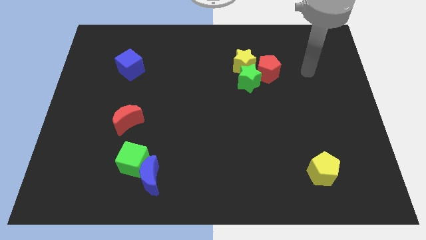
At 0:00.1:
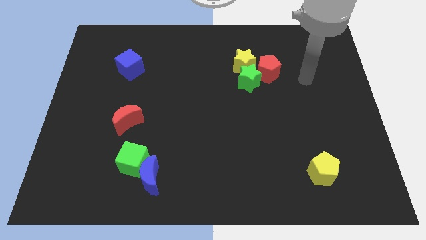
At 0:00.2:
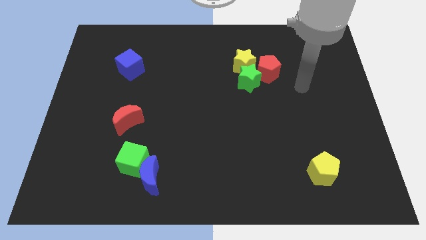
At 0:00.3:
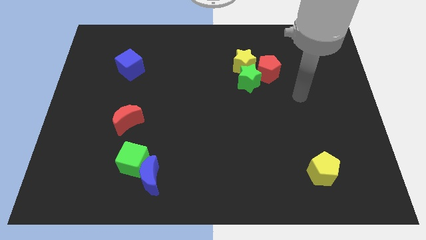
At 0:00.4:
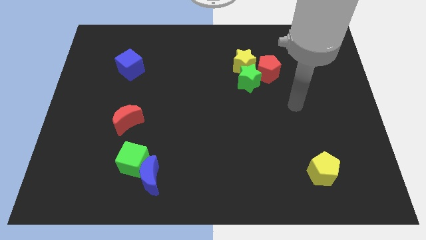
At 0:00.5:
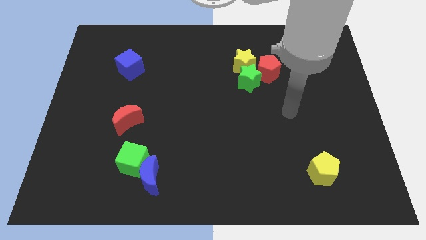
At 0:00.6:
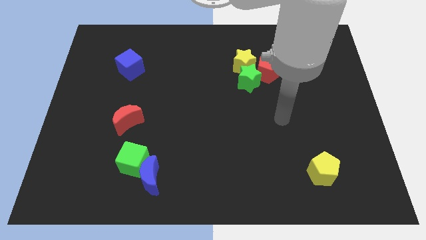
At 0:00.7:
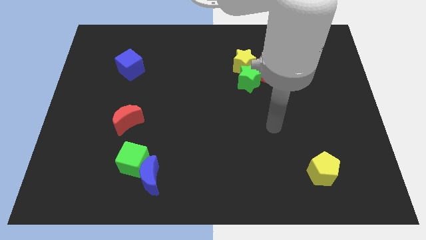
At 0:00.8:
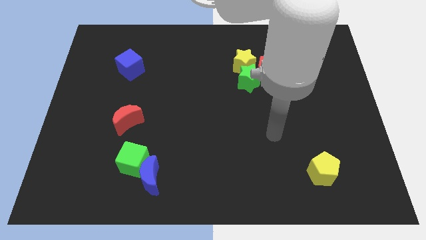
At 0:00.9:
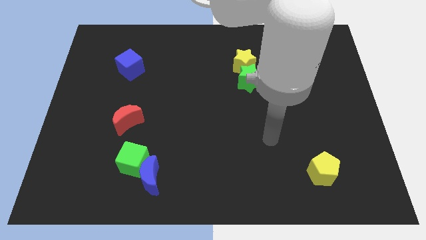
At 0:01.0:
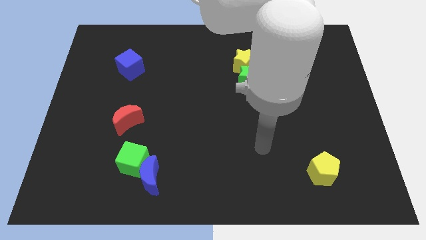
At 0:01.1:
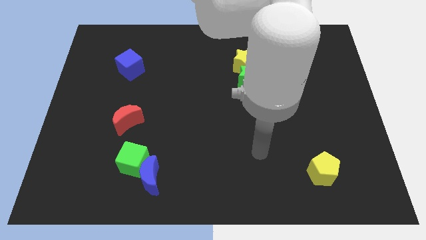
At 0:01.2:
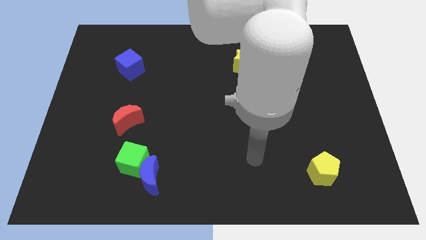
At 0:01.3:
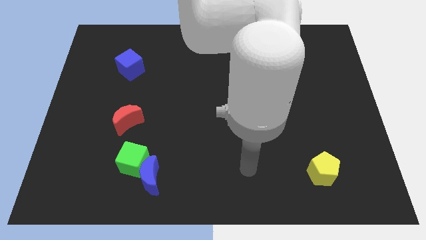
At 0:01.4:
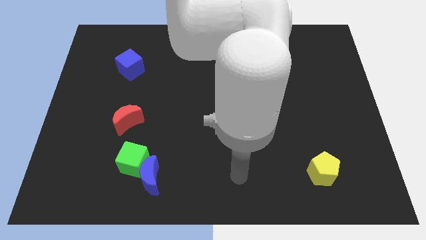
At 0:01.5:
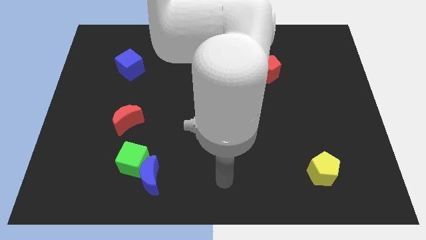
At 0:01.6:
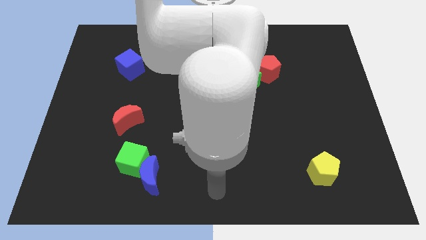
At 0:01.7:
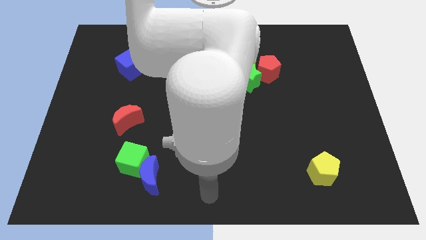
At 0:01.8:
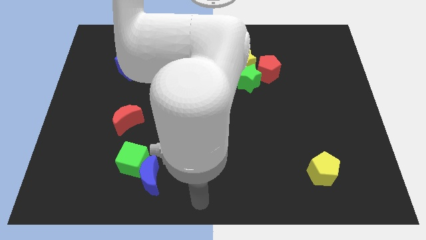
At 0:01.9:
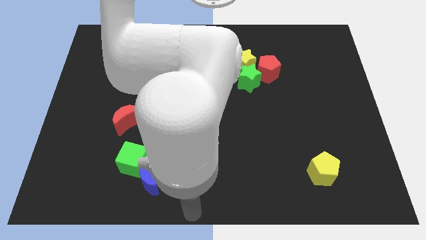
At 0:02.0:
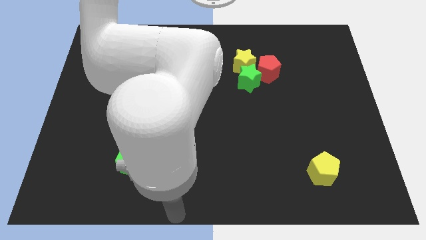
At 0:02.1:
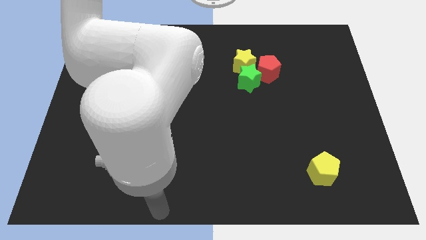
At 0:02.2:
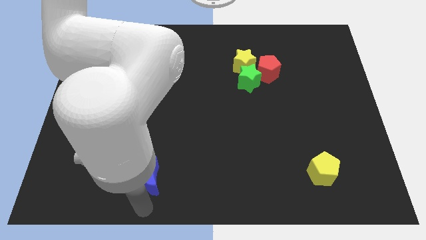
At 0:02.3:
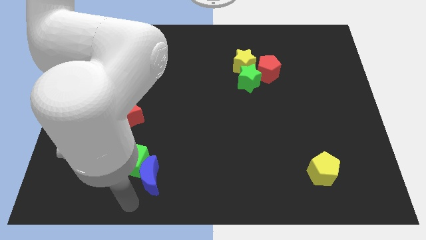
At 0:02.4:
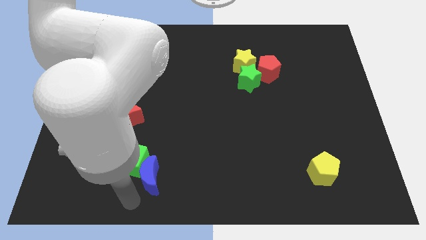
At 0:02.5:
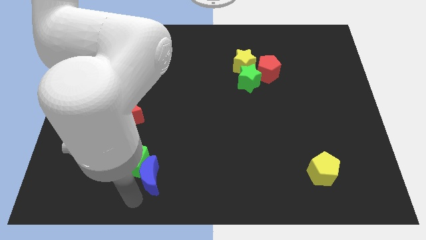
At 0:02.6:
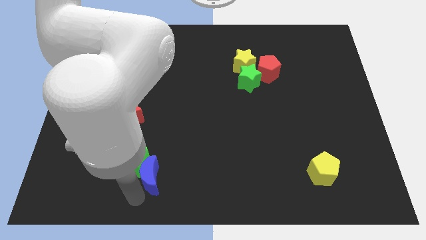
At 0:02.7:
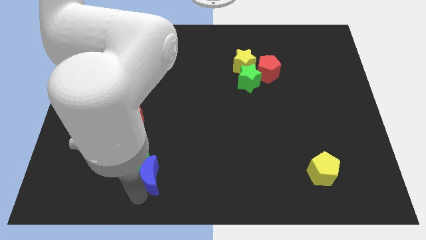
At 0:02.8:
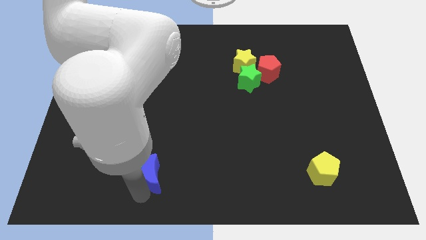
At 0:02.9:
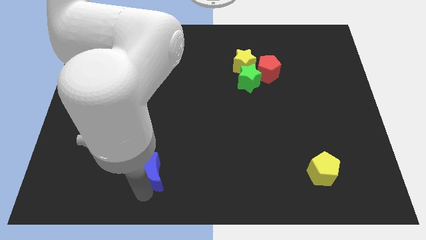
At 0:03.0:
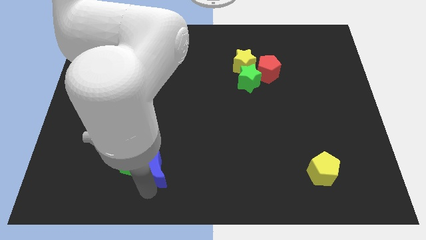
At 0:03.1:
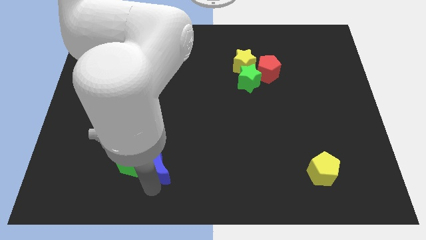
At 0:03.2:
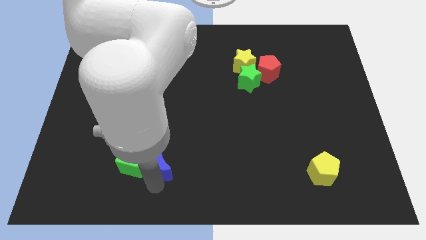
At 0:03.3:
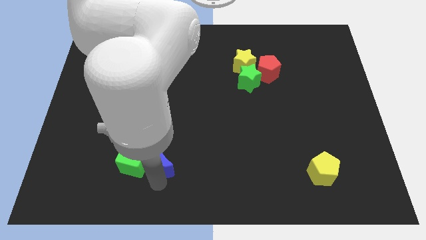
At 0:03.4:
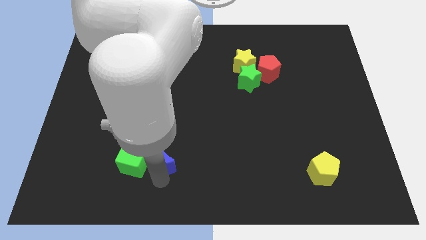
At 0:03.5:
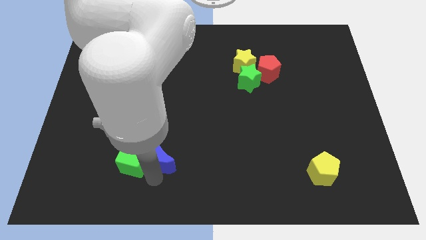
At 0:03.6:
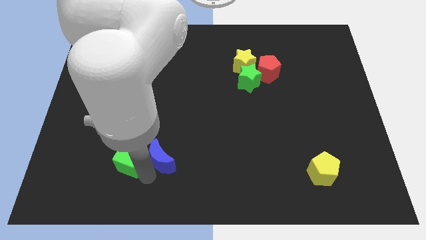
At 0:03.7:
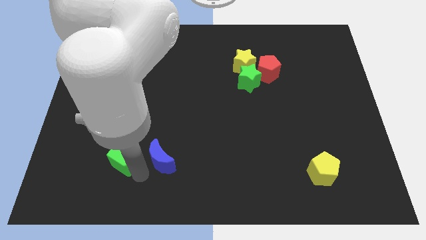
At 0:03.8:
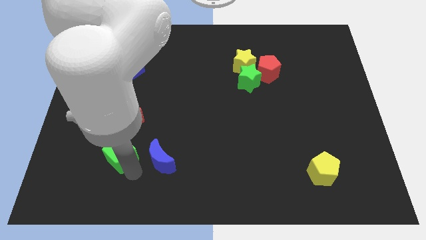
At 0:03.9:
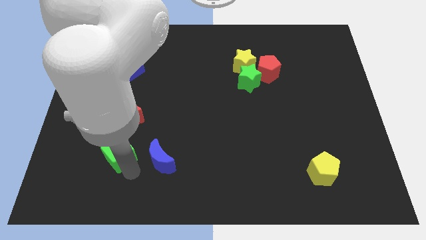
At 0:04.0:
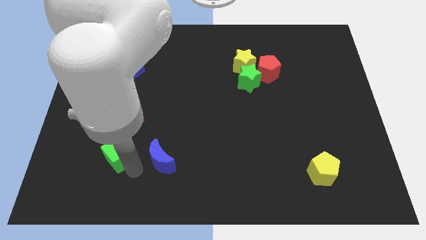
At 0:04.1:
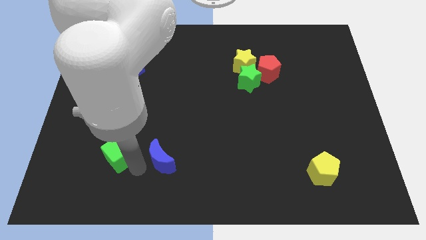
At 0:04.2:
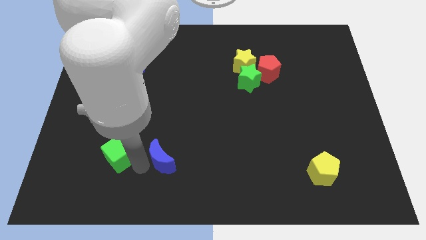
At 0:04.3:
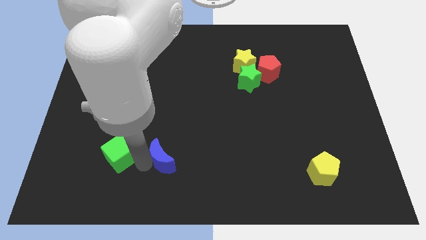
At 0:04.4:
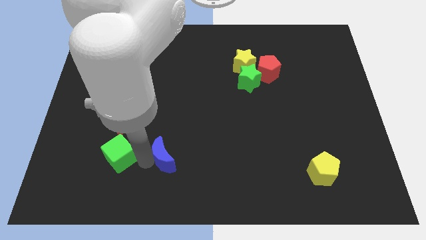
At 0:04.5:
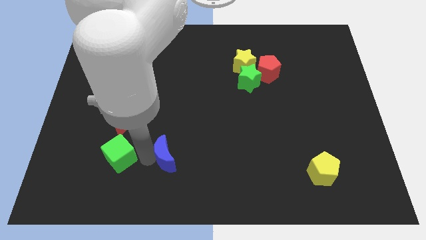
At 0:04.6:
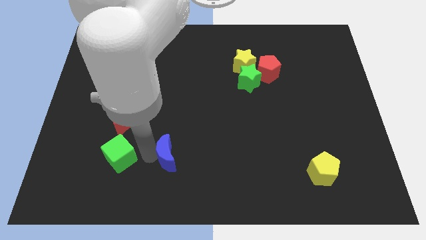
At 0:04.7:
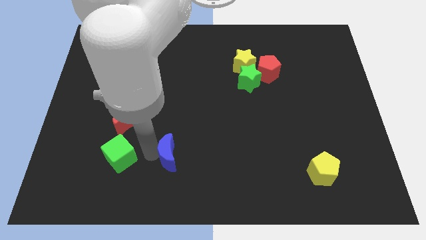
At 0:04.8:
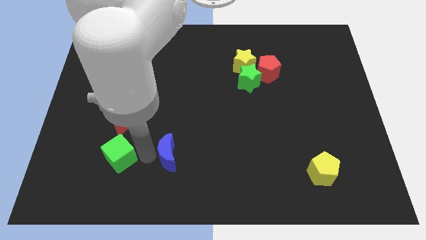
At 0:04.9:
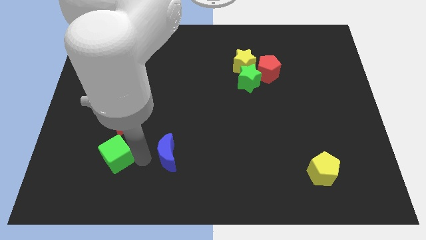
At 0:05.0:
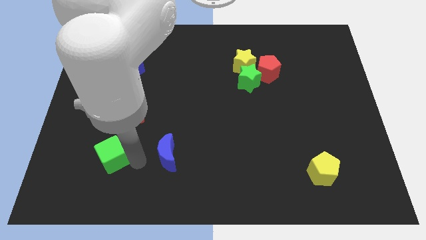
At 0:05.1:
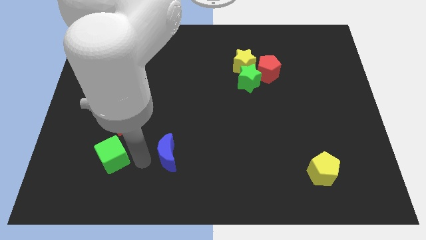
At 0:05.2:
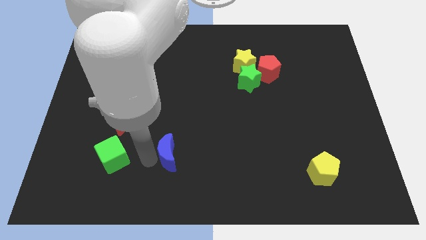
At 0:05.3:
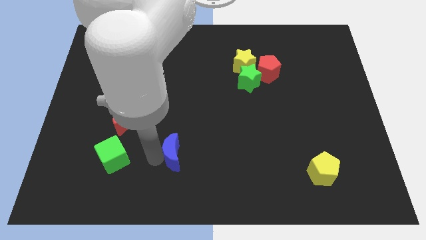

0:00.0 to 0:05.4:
slide the blue moon up and then right slightly

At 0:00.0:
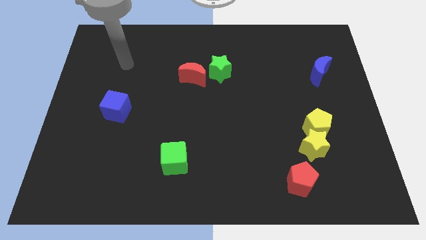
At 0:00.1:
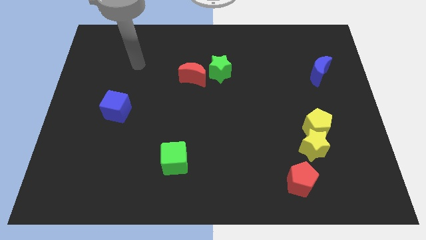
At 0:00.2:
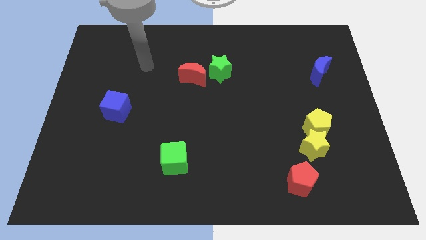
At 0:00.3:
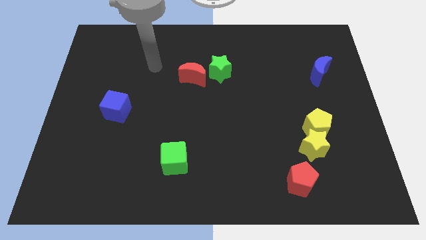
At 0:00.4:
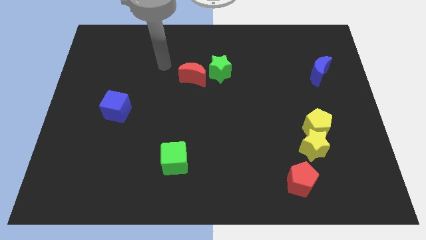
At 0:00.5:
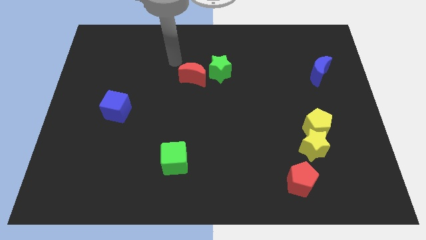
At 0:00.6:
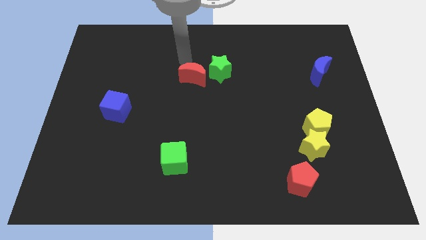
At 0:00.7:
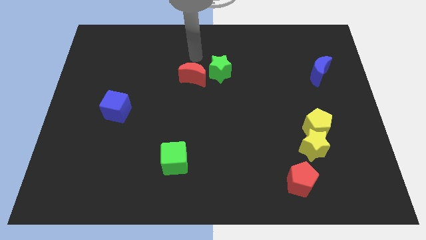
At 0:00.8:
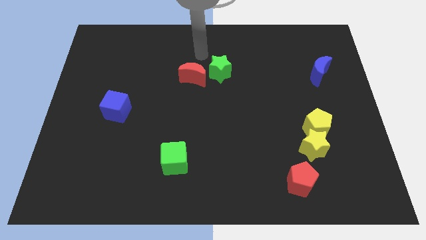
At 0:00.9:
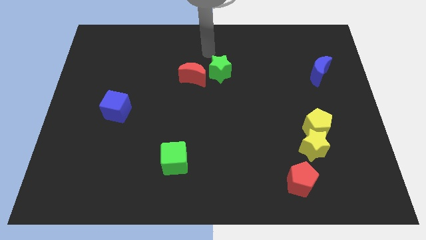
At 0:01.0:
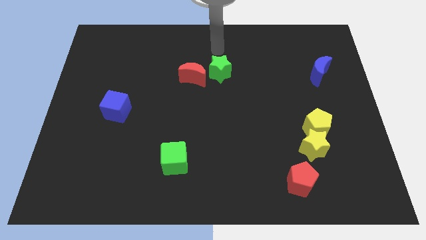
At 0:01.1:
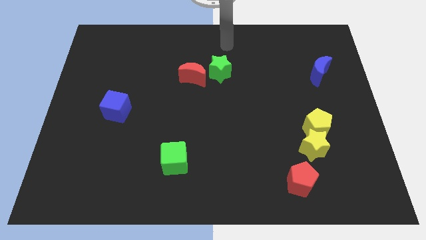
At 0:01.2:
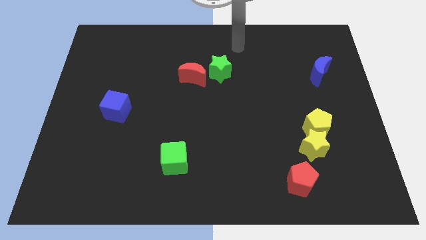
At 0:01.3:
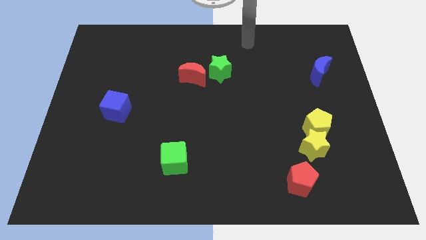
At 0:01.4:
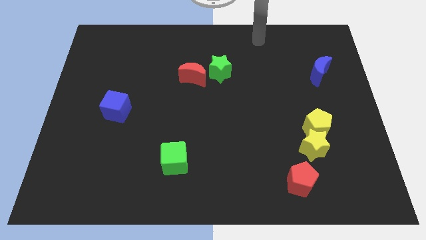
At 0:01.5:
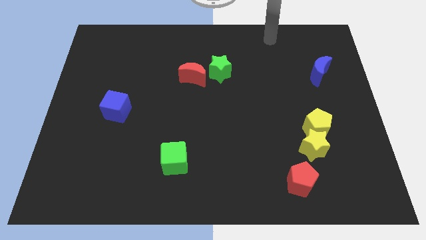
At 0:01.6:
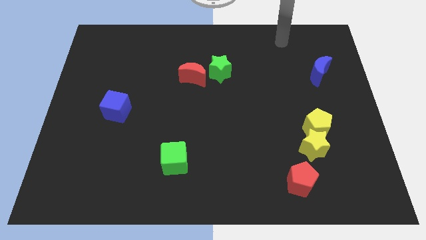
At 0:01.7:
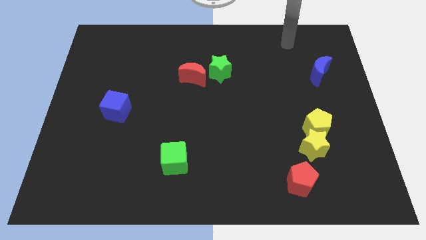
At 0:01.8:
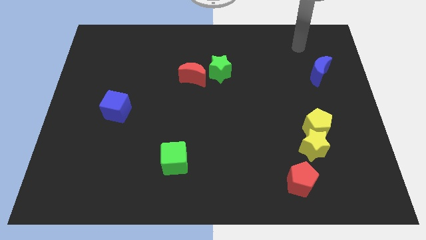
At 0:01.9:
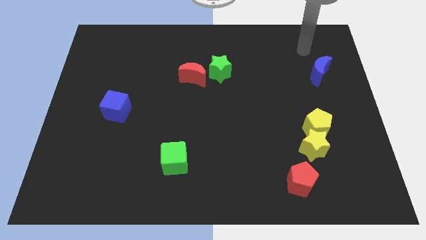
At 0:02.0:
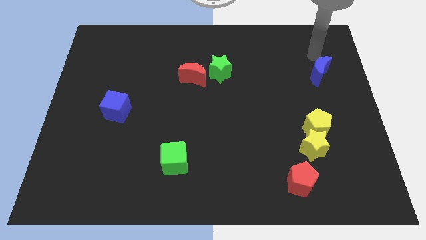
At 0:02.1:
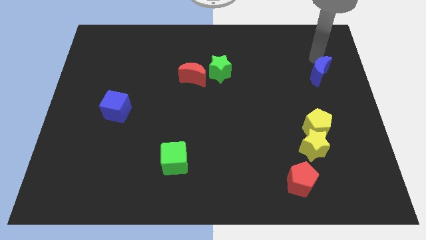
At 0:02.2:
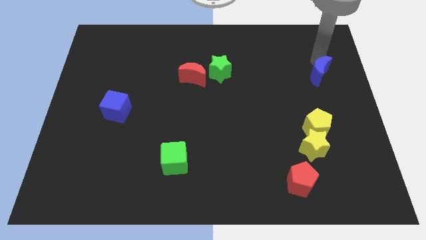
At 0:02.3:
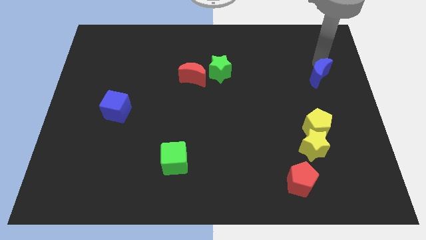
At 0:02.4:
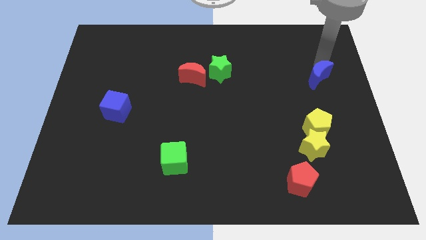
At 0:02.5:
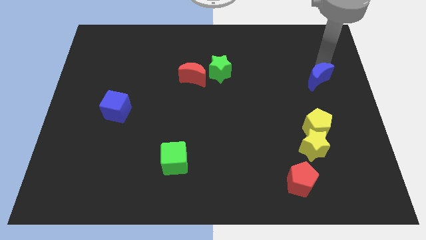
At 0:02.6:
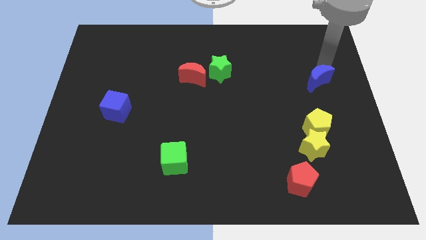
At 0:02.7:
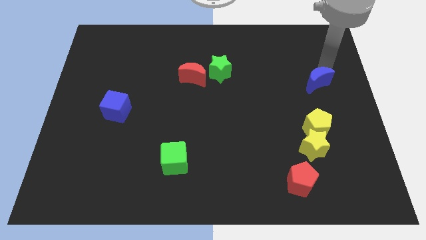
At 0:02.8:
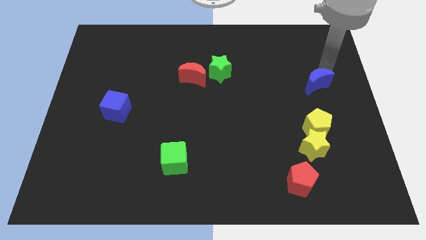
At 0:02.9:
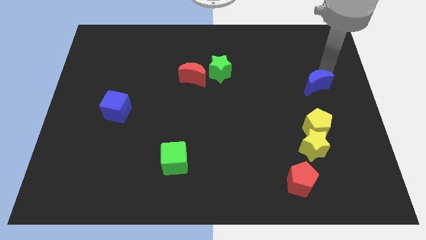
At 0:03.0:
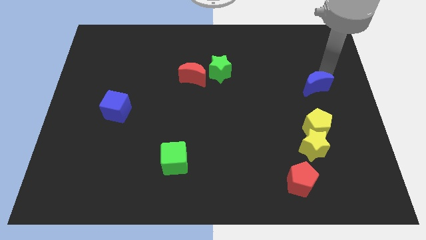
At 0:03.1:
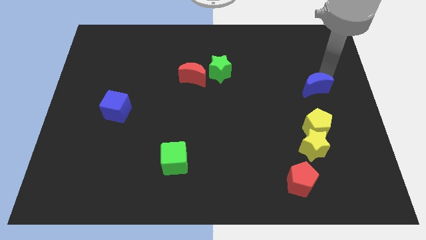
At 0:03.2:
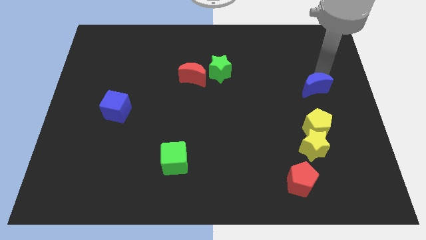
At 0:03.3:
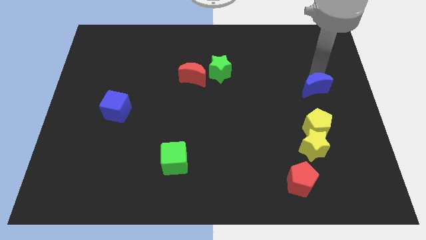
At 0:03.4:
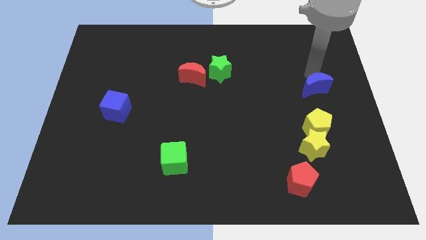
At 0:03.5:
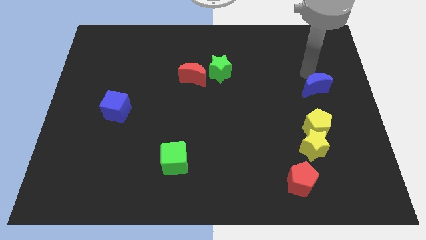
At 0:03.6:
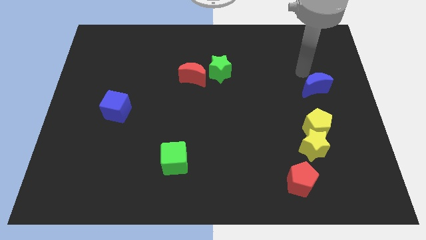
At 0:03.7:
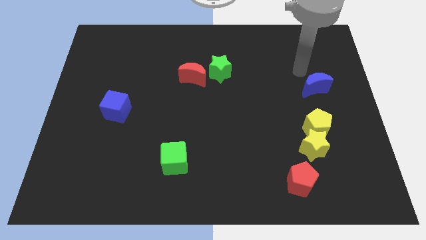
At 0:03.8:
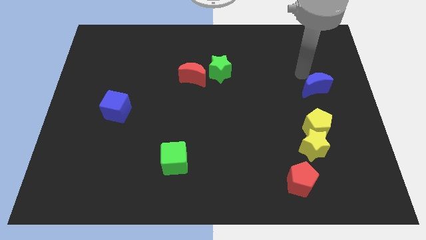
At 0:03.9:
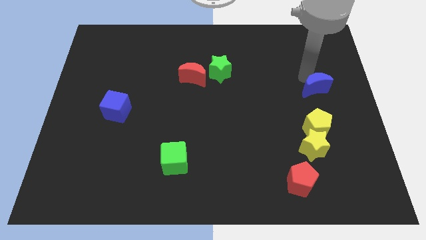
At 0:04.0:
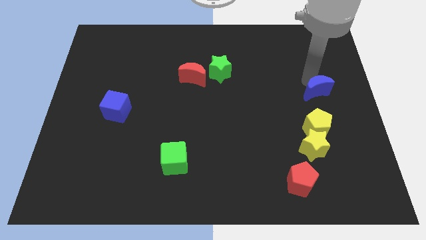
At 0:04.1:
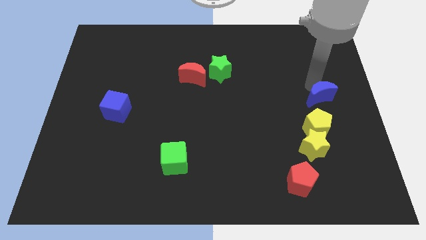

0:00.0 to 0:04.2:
push the blue moon down a little bit
